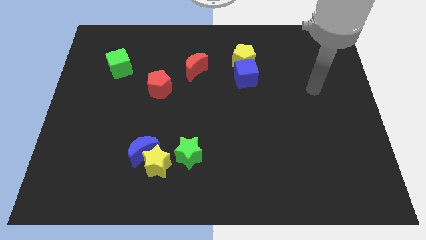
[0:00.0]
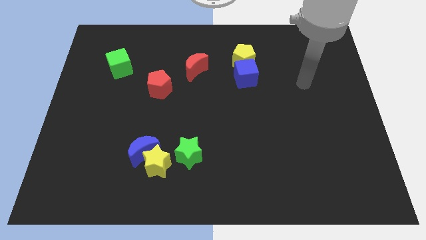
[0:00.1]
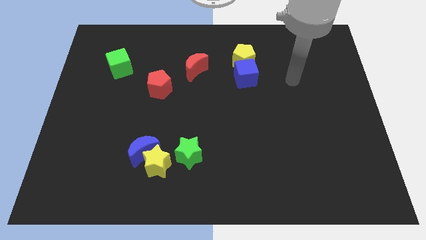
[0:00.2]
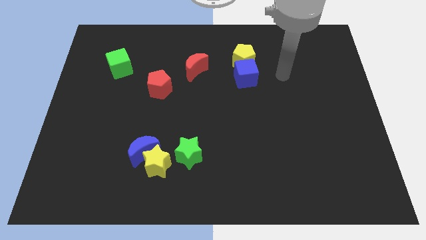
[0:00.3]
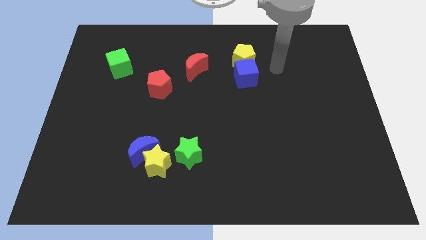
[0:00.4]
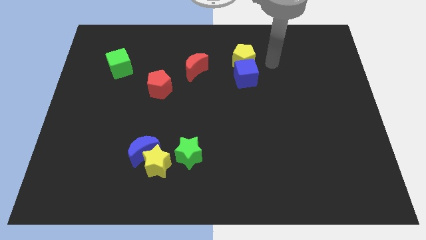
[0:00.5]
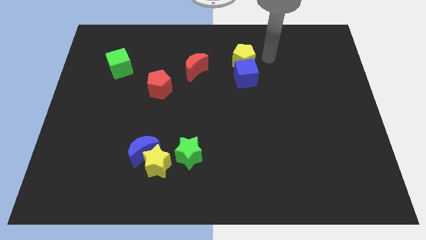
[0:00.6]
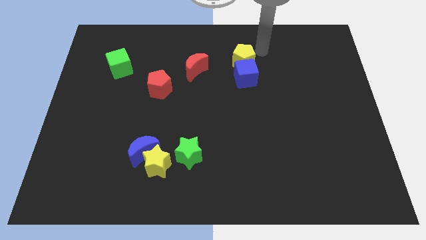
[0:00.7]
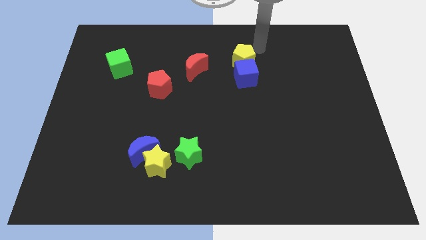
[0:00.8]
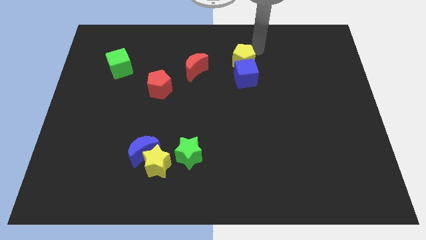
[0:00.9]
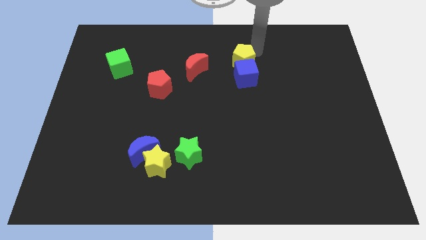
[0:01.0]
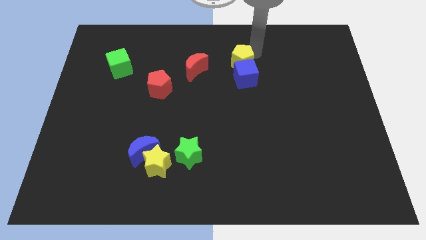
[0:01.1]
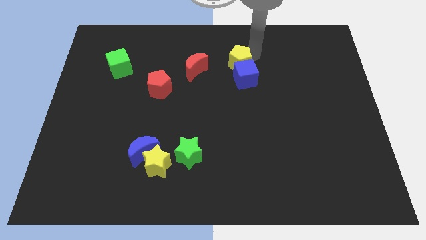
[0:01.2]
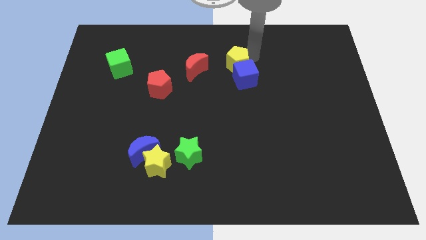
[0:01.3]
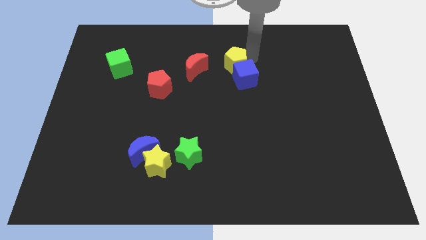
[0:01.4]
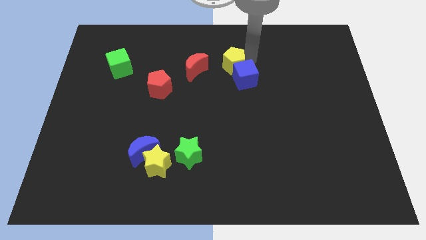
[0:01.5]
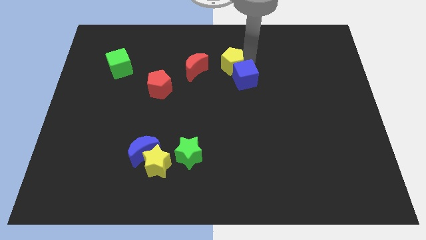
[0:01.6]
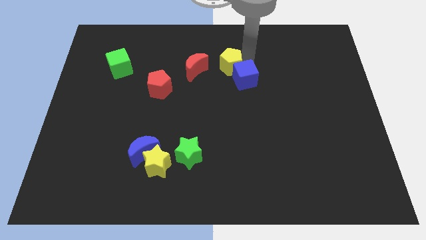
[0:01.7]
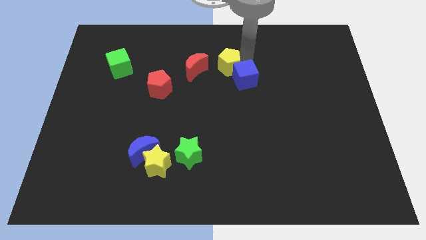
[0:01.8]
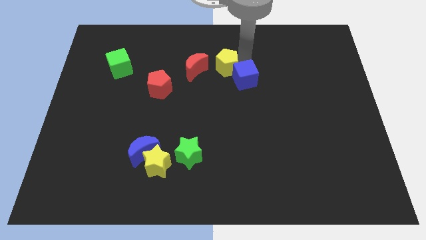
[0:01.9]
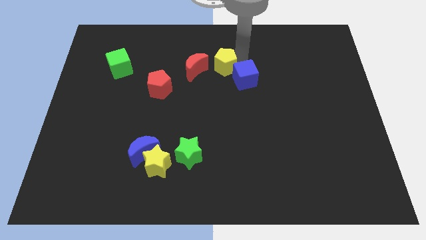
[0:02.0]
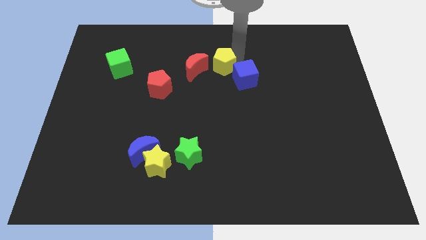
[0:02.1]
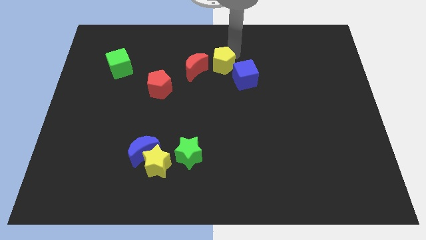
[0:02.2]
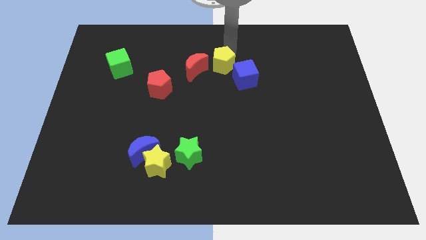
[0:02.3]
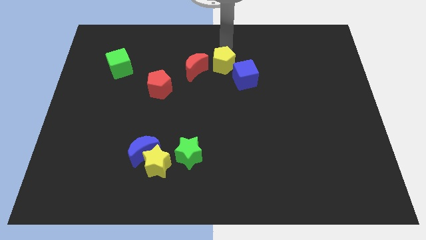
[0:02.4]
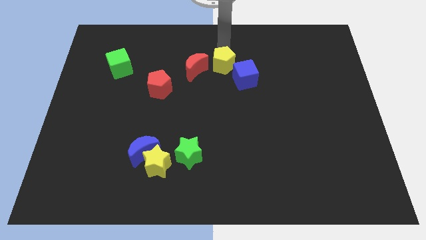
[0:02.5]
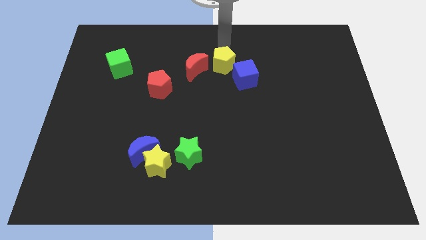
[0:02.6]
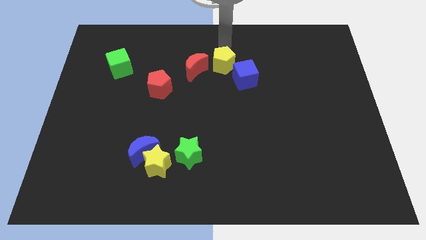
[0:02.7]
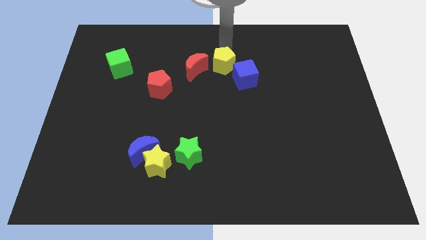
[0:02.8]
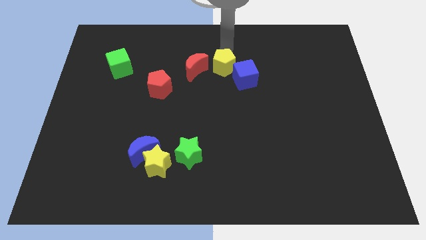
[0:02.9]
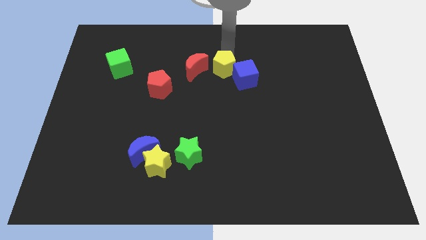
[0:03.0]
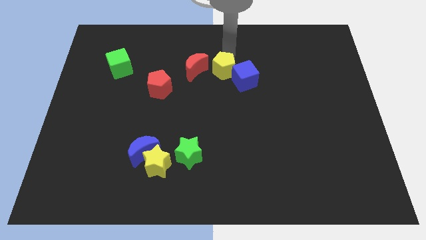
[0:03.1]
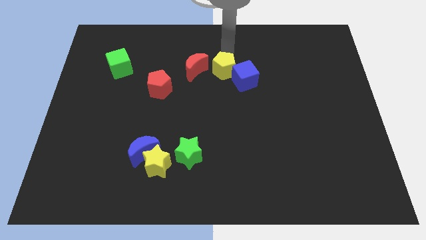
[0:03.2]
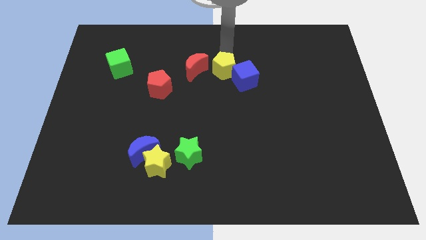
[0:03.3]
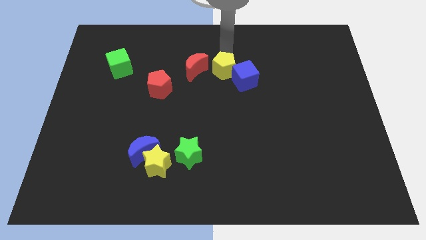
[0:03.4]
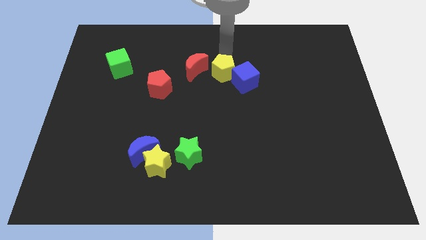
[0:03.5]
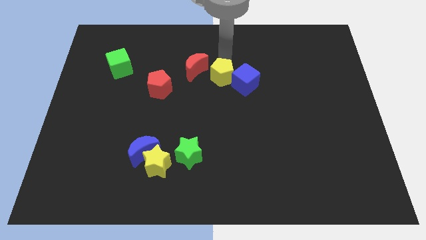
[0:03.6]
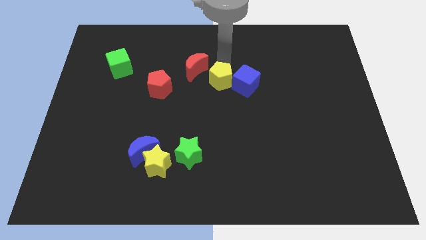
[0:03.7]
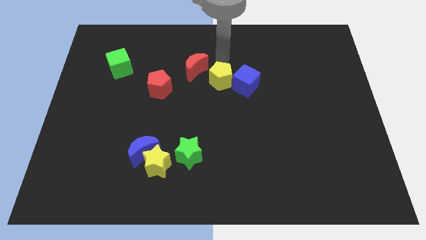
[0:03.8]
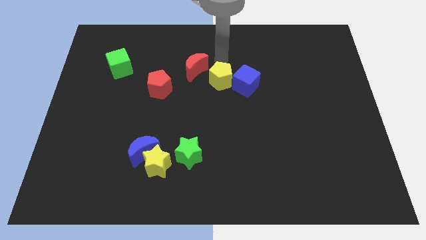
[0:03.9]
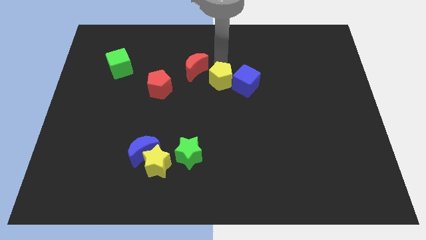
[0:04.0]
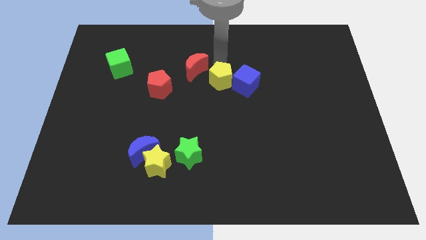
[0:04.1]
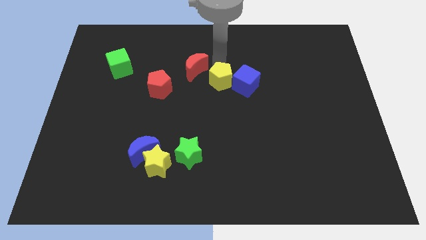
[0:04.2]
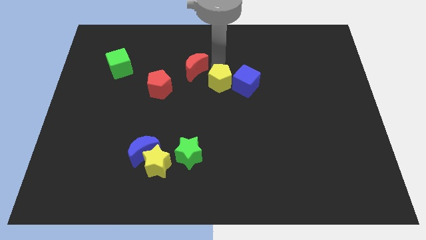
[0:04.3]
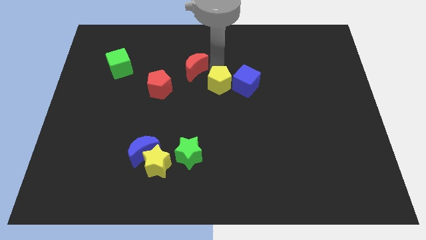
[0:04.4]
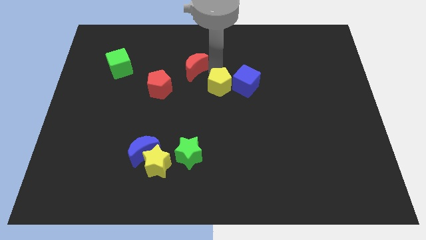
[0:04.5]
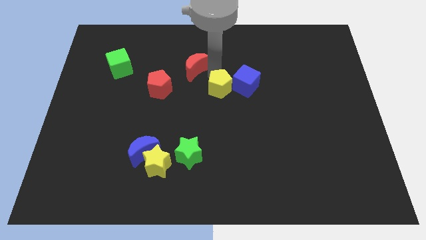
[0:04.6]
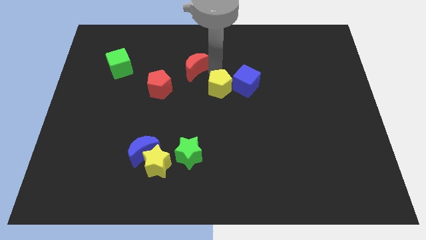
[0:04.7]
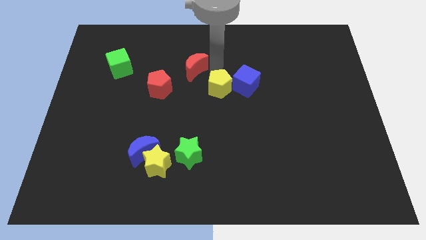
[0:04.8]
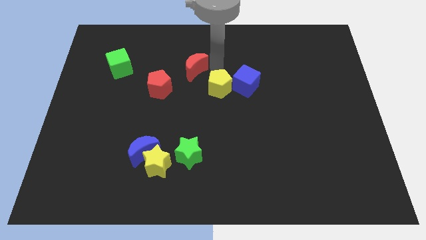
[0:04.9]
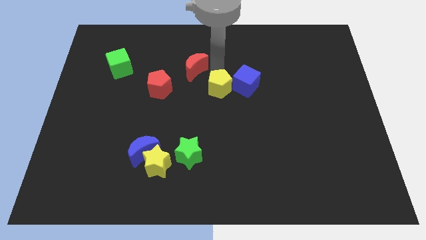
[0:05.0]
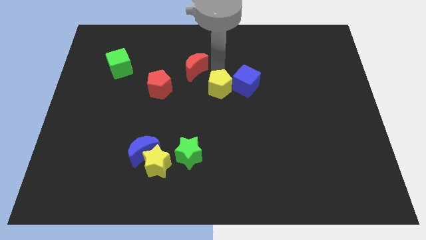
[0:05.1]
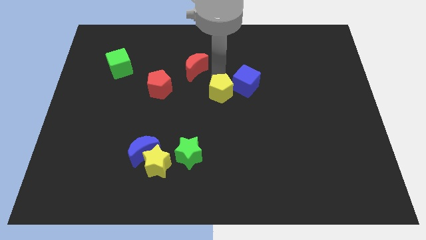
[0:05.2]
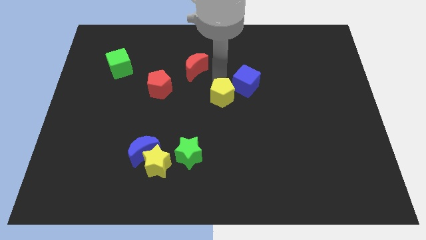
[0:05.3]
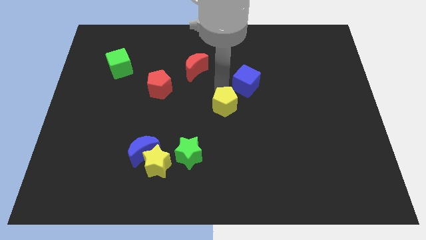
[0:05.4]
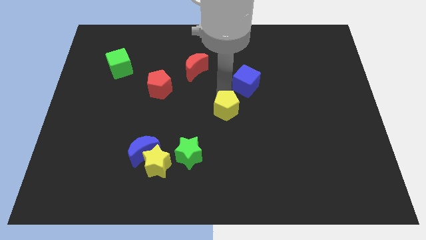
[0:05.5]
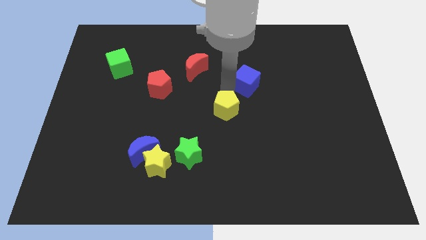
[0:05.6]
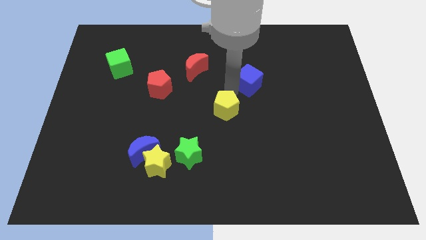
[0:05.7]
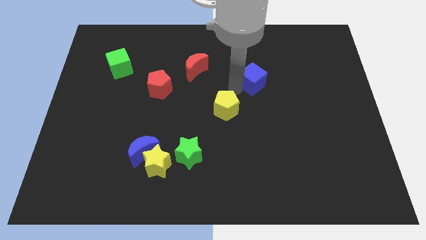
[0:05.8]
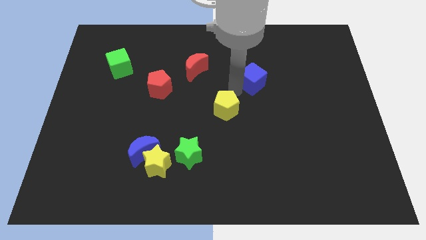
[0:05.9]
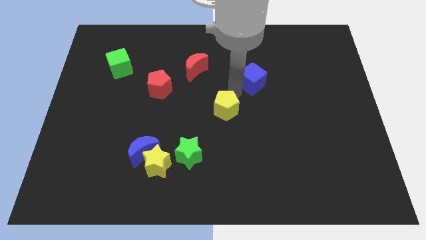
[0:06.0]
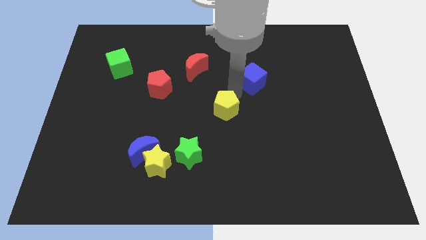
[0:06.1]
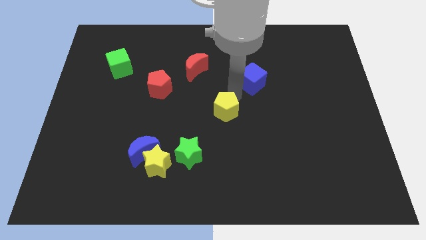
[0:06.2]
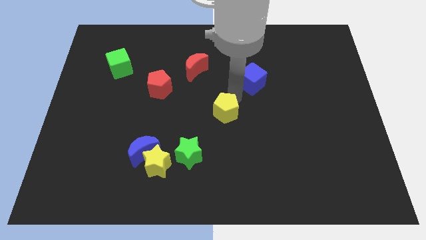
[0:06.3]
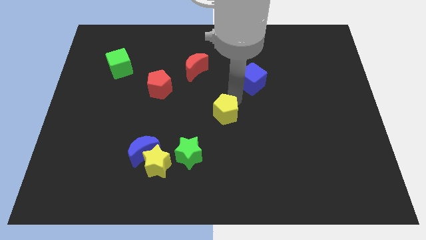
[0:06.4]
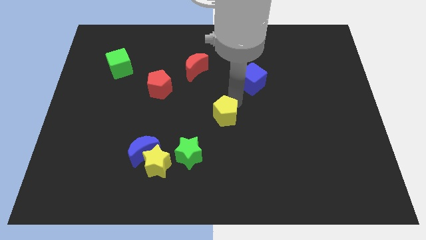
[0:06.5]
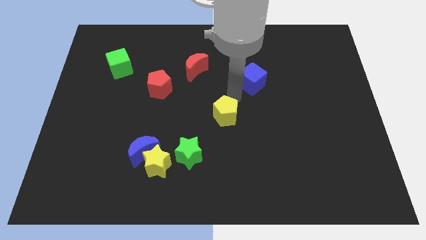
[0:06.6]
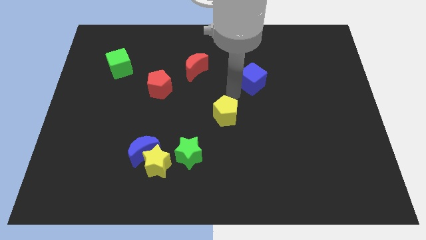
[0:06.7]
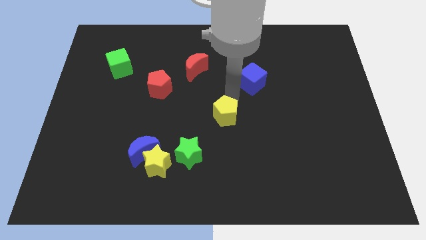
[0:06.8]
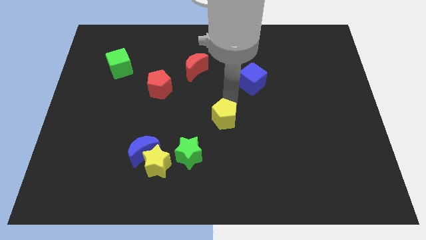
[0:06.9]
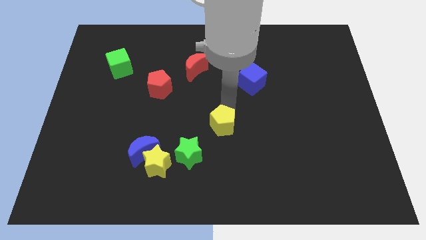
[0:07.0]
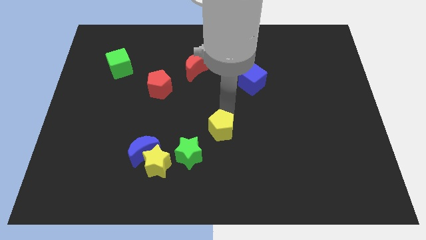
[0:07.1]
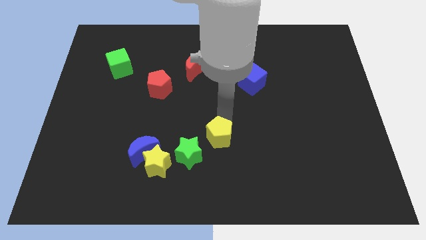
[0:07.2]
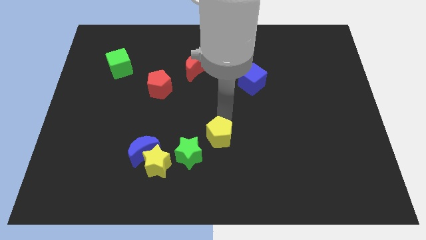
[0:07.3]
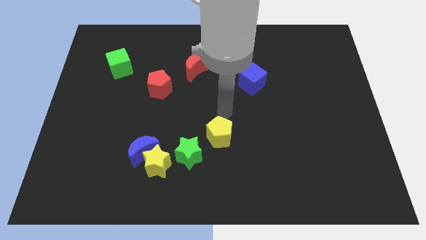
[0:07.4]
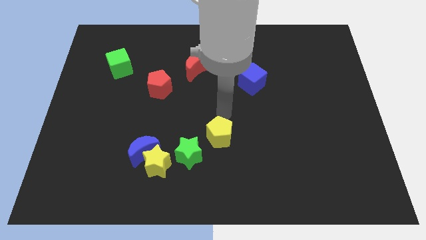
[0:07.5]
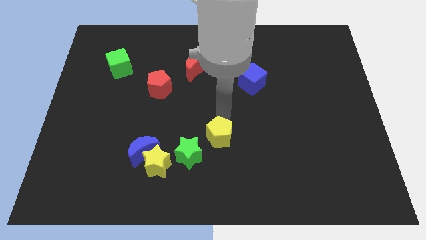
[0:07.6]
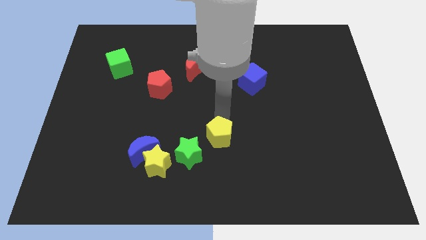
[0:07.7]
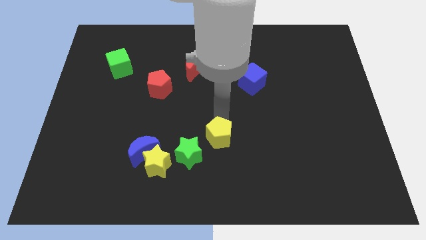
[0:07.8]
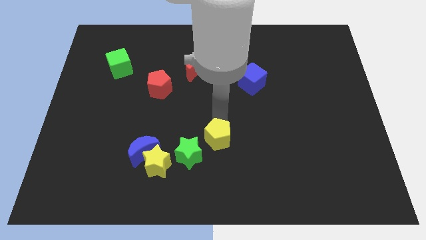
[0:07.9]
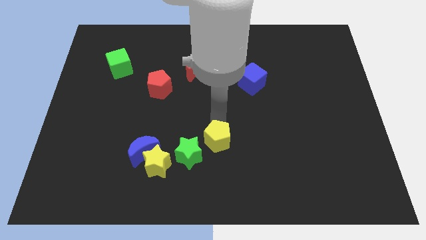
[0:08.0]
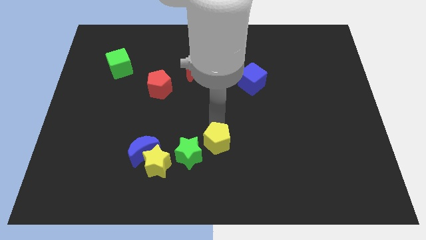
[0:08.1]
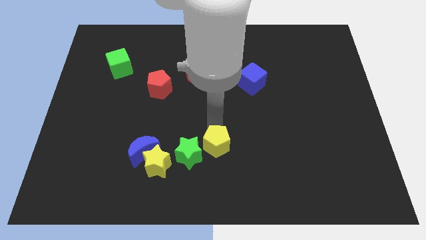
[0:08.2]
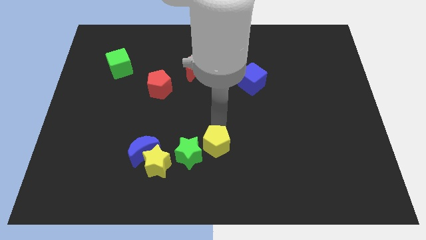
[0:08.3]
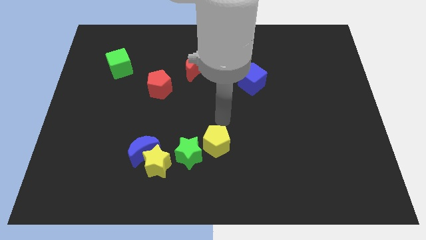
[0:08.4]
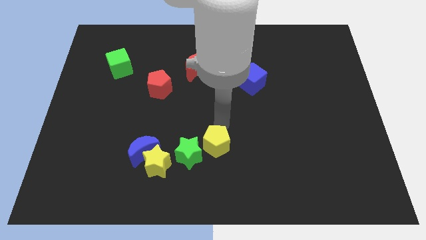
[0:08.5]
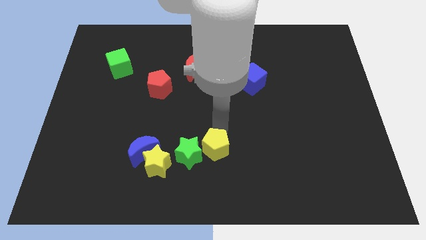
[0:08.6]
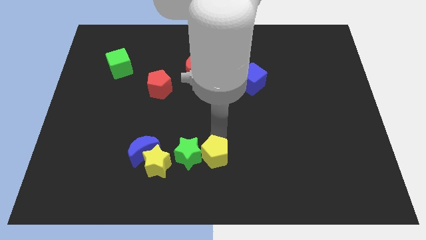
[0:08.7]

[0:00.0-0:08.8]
slide the yellow pentagon to the bottom
